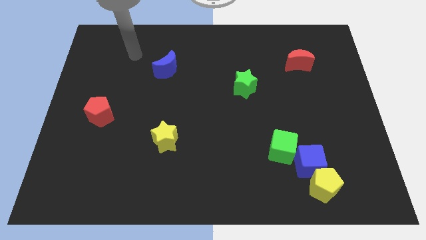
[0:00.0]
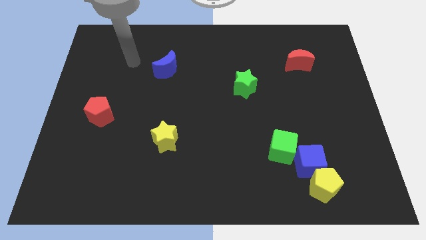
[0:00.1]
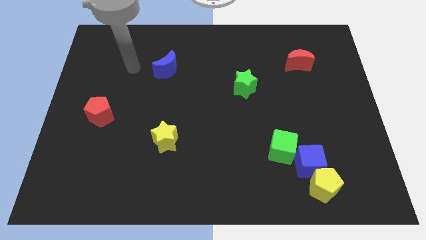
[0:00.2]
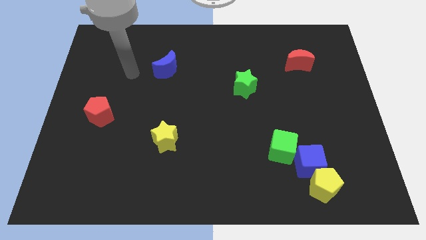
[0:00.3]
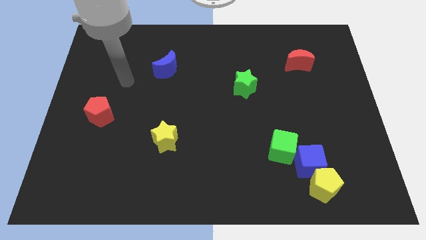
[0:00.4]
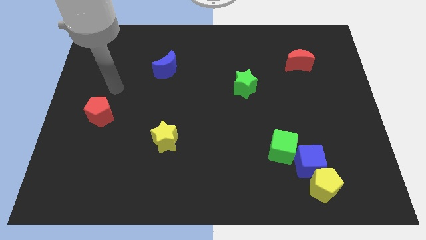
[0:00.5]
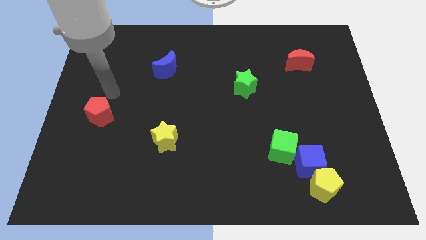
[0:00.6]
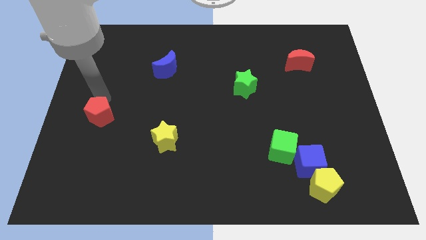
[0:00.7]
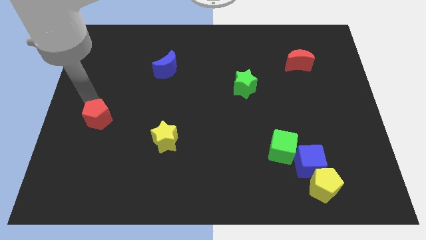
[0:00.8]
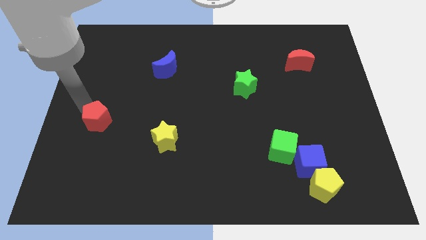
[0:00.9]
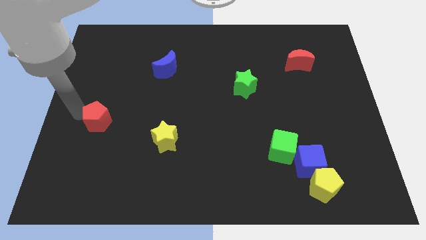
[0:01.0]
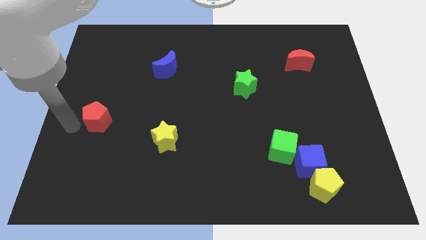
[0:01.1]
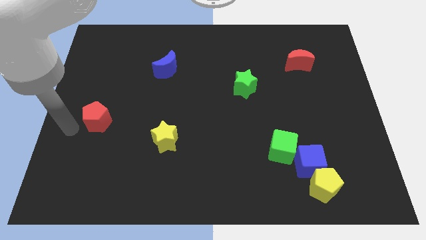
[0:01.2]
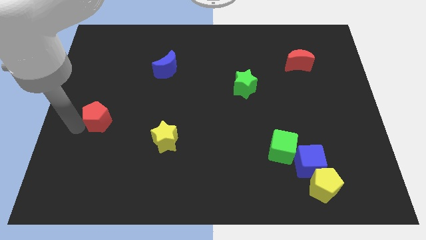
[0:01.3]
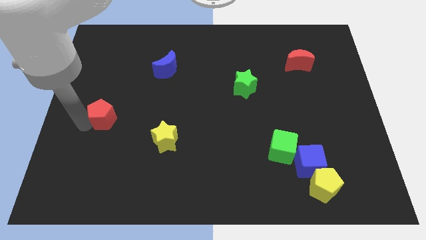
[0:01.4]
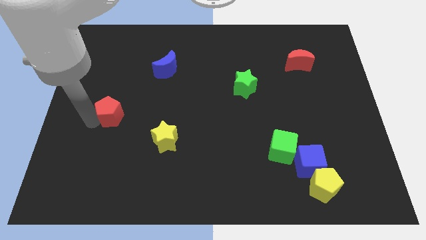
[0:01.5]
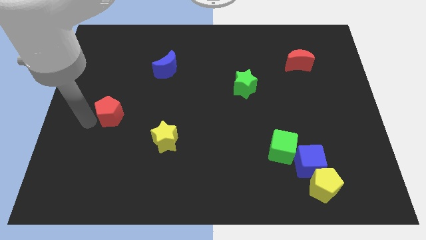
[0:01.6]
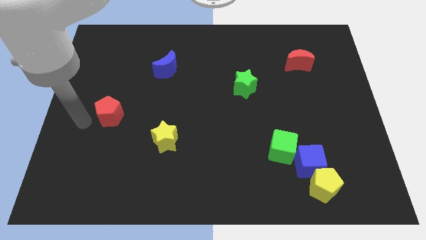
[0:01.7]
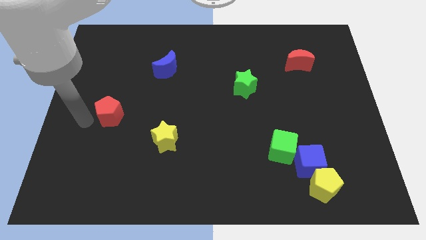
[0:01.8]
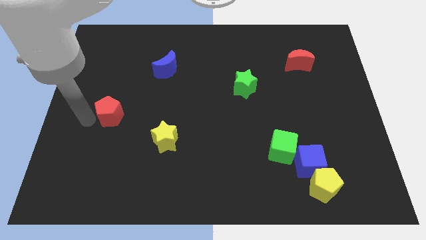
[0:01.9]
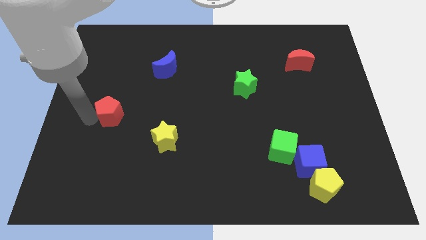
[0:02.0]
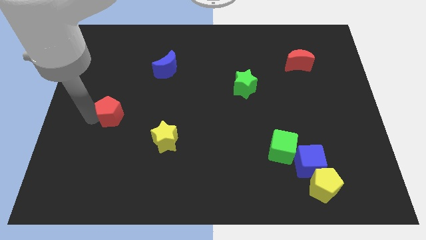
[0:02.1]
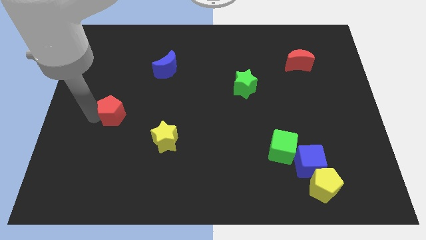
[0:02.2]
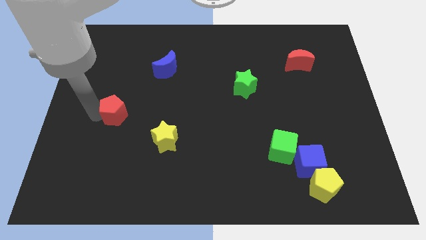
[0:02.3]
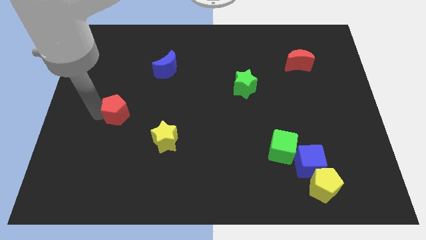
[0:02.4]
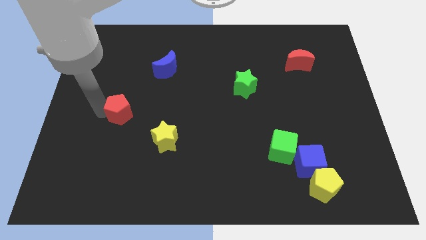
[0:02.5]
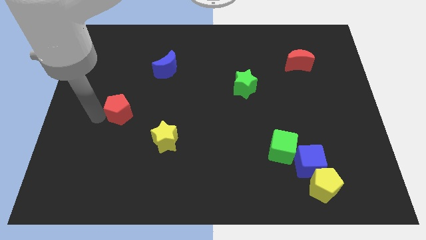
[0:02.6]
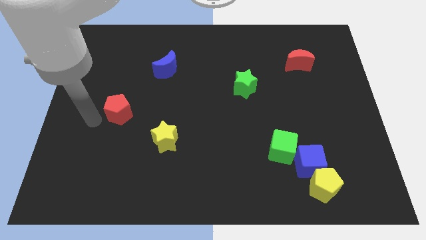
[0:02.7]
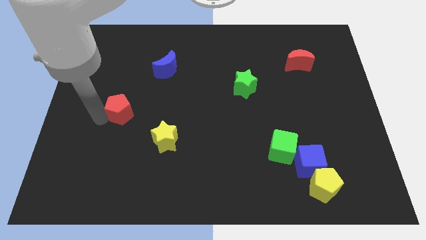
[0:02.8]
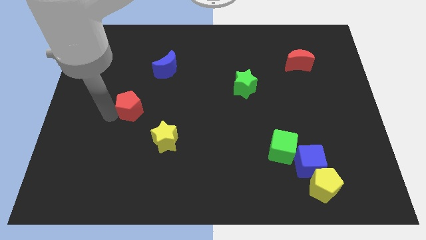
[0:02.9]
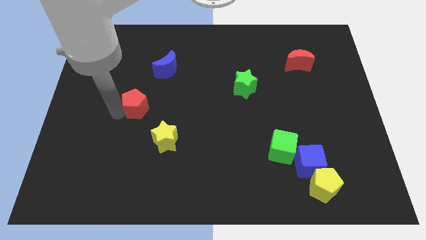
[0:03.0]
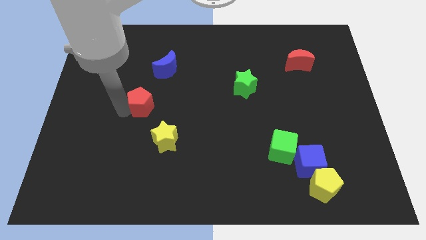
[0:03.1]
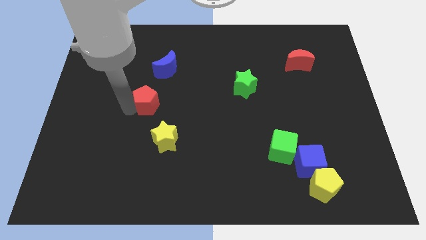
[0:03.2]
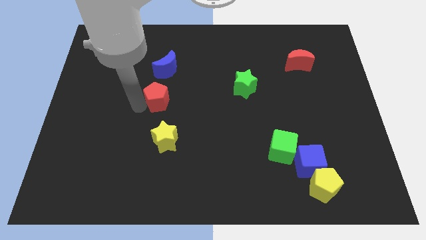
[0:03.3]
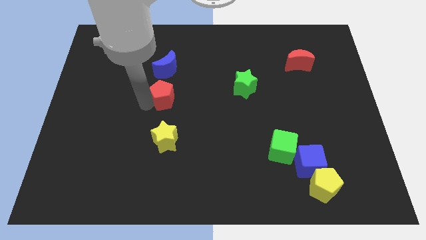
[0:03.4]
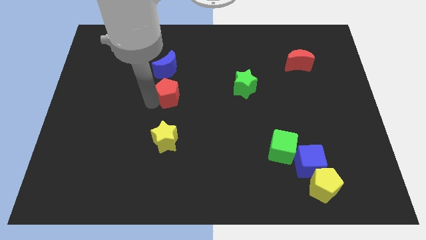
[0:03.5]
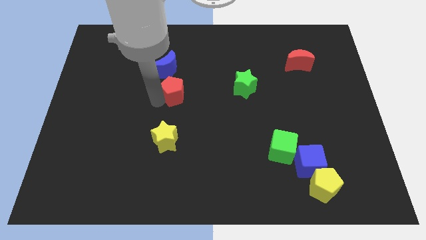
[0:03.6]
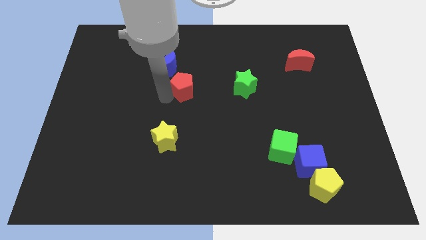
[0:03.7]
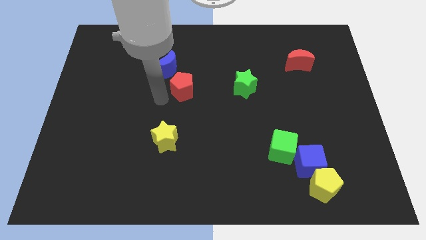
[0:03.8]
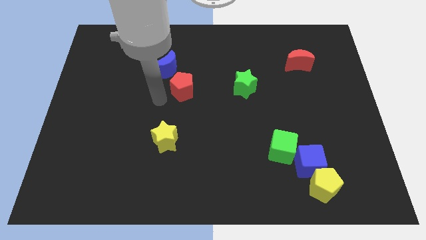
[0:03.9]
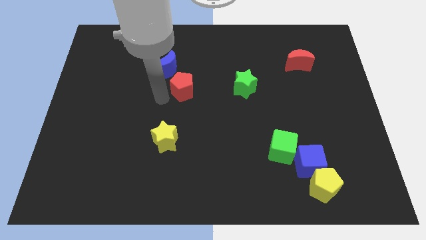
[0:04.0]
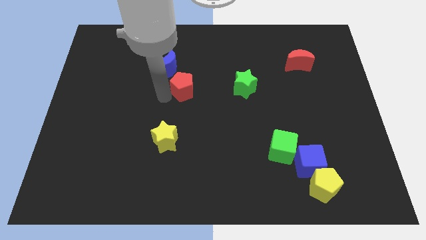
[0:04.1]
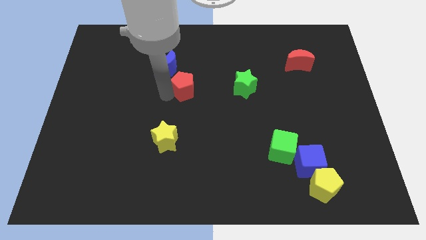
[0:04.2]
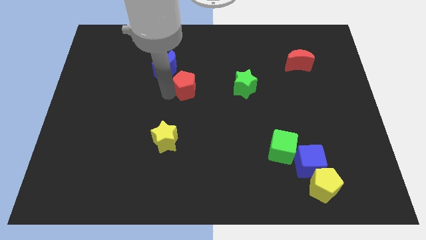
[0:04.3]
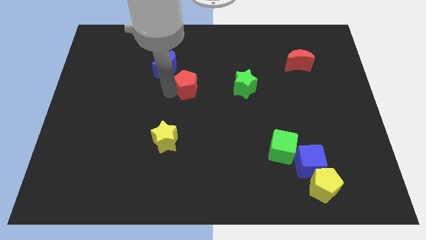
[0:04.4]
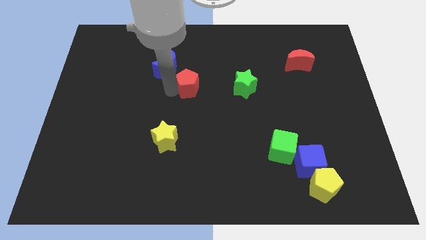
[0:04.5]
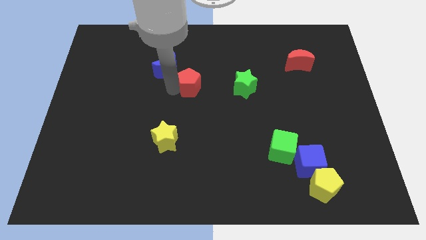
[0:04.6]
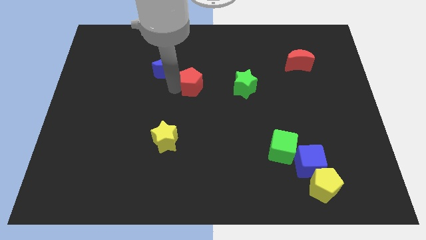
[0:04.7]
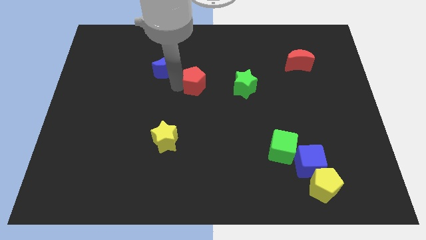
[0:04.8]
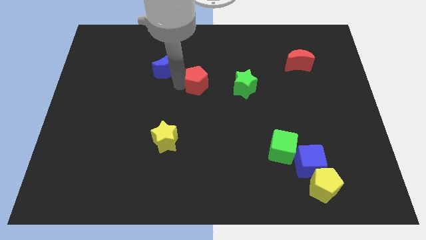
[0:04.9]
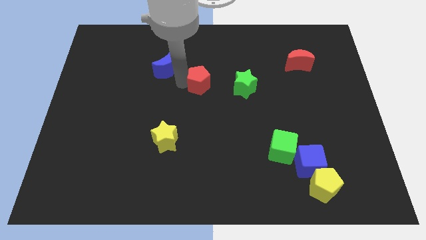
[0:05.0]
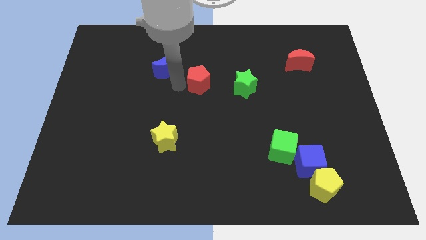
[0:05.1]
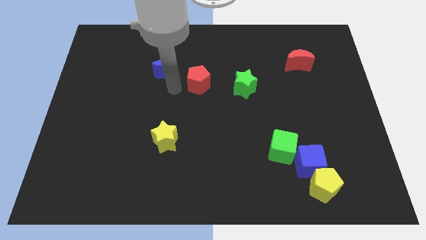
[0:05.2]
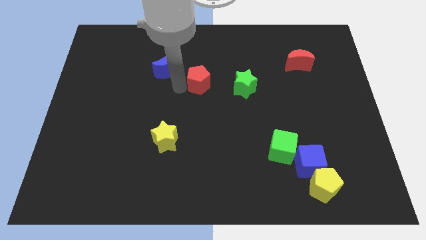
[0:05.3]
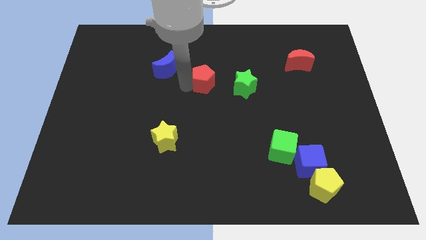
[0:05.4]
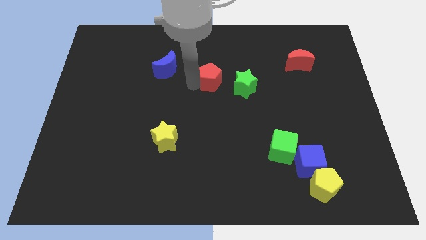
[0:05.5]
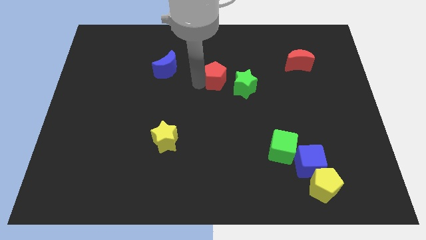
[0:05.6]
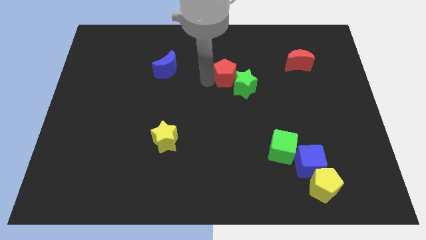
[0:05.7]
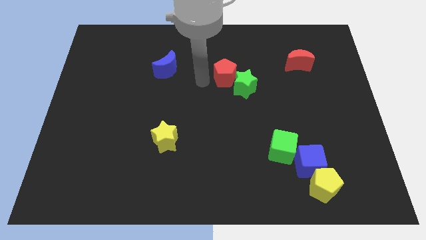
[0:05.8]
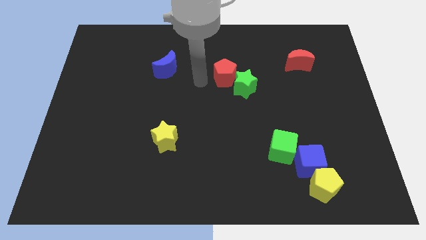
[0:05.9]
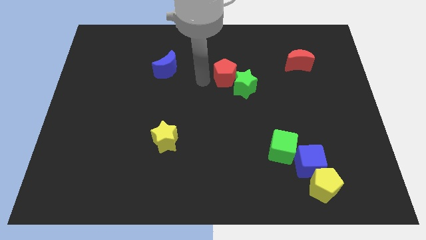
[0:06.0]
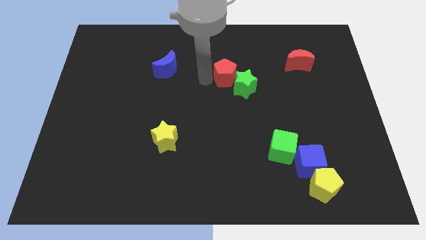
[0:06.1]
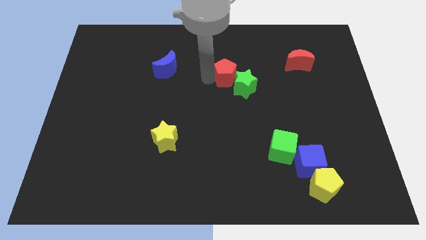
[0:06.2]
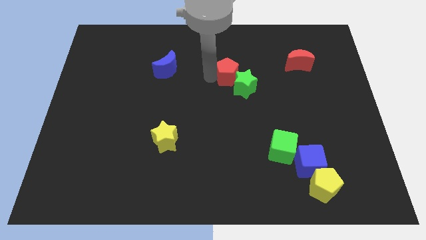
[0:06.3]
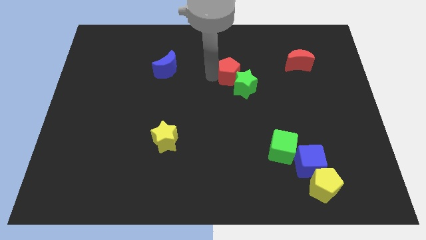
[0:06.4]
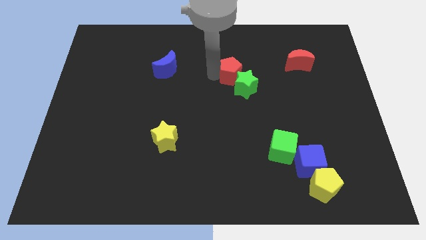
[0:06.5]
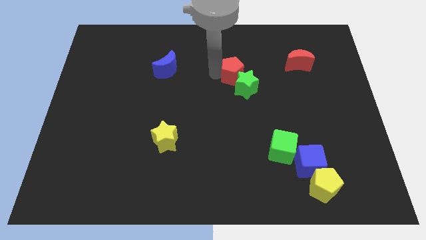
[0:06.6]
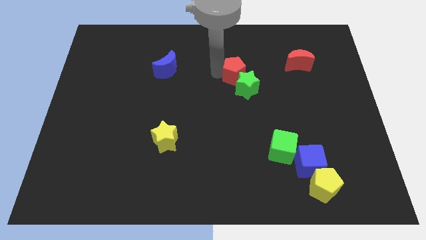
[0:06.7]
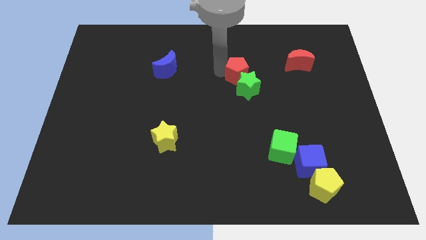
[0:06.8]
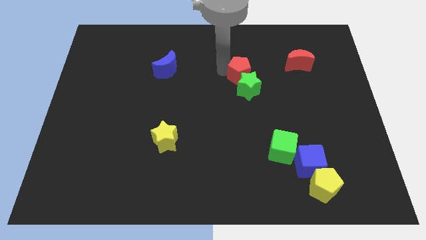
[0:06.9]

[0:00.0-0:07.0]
slide the red pentagon to the top right of the green star

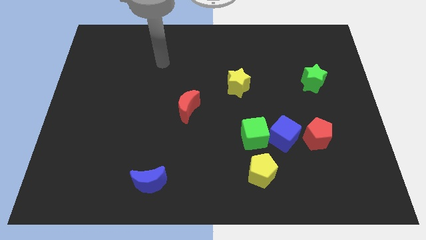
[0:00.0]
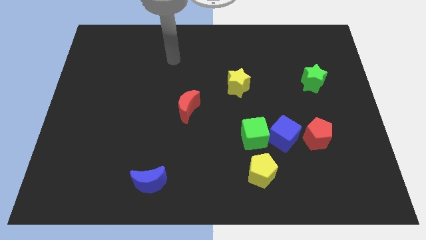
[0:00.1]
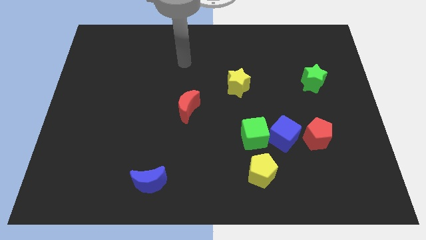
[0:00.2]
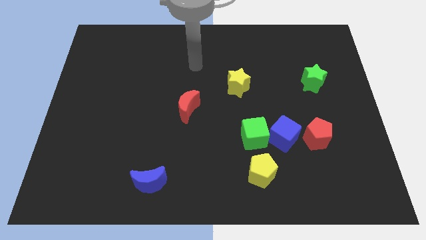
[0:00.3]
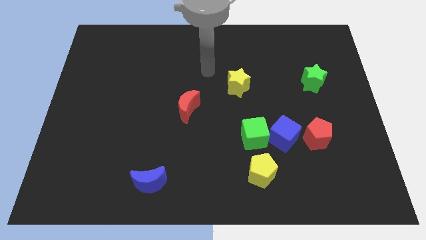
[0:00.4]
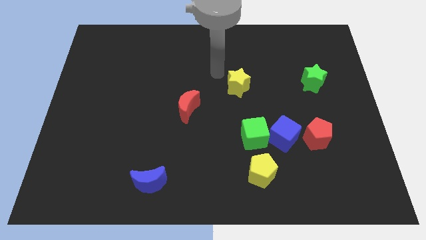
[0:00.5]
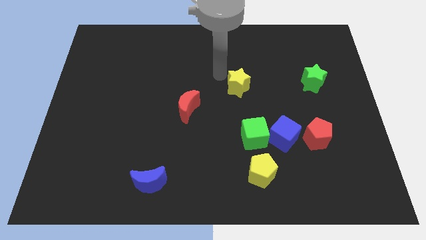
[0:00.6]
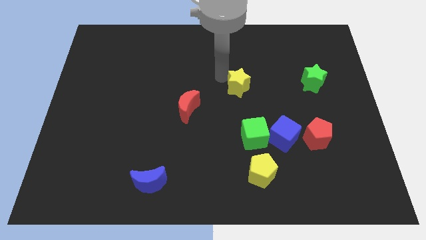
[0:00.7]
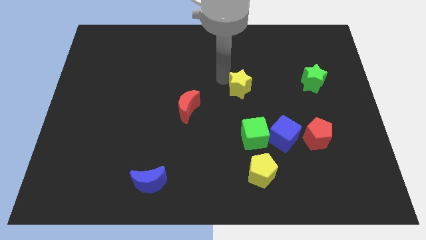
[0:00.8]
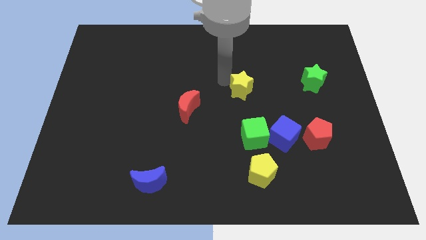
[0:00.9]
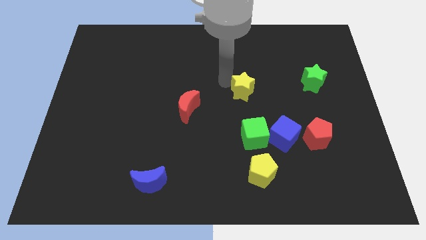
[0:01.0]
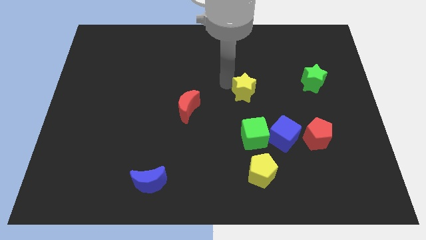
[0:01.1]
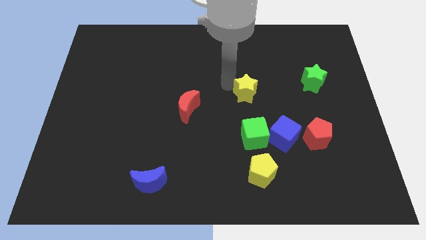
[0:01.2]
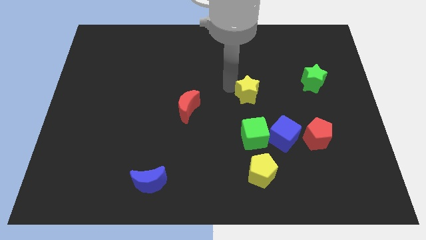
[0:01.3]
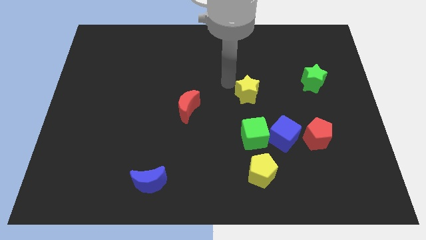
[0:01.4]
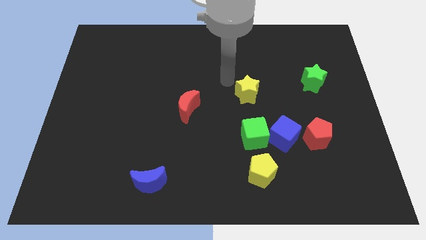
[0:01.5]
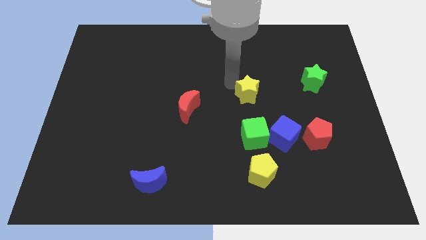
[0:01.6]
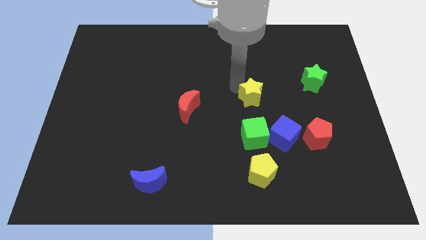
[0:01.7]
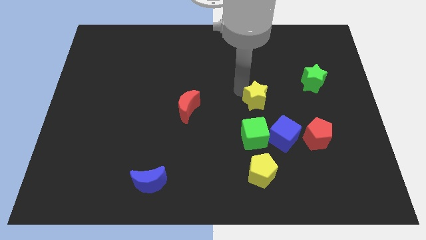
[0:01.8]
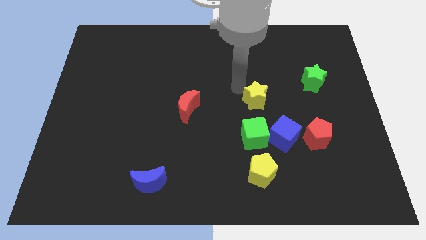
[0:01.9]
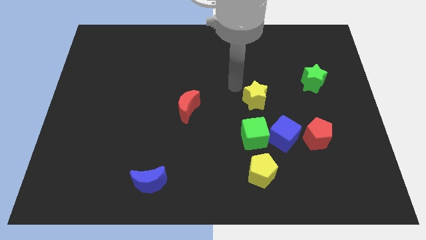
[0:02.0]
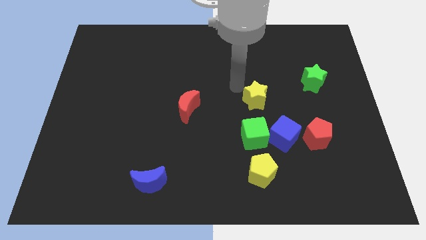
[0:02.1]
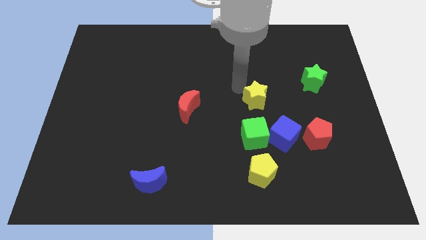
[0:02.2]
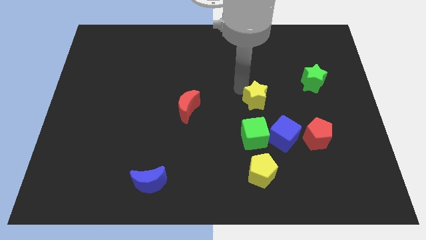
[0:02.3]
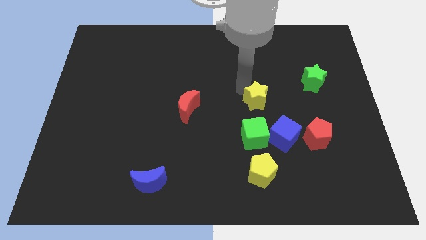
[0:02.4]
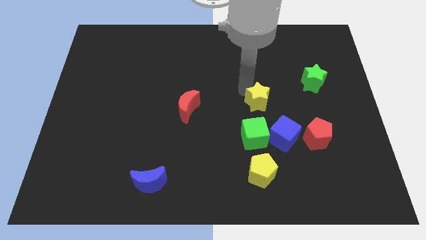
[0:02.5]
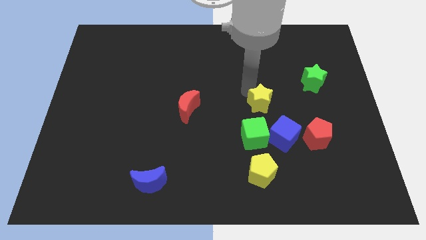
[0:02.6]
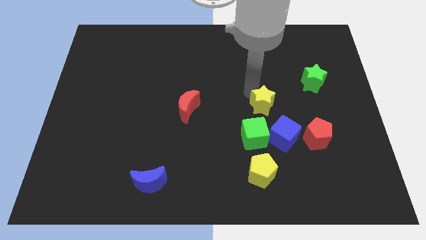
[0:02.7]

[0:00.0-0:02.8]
slide the yellow star to the top right side of the green cube
